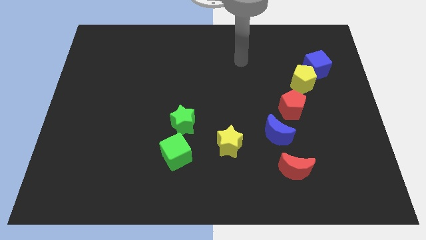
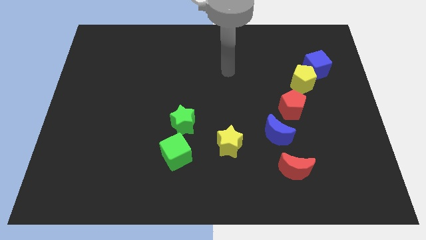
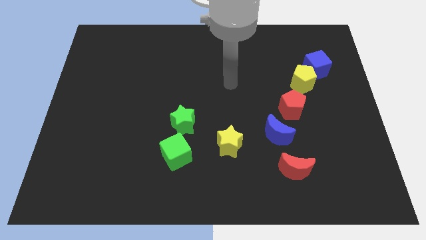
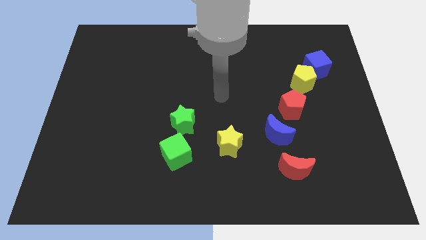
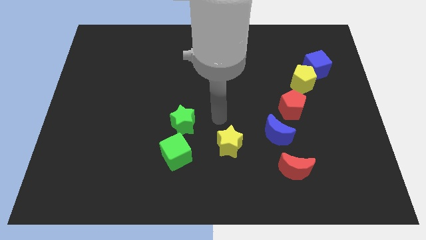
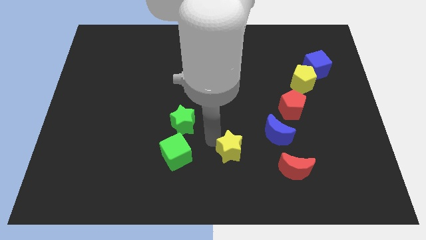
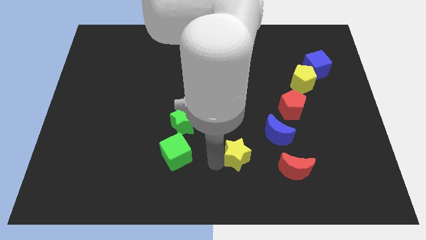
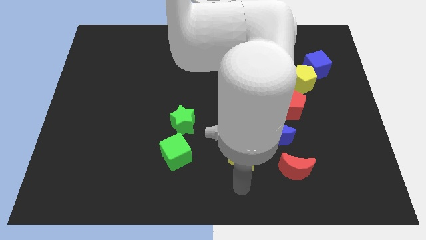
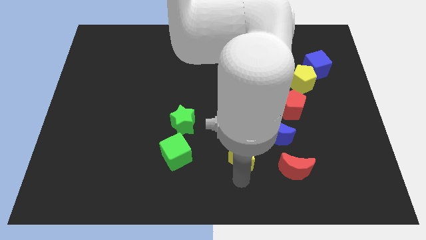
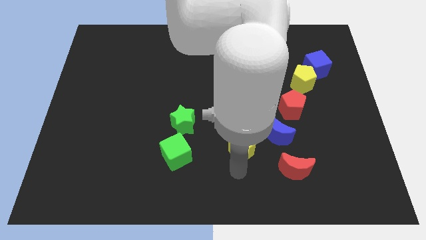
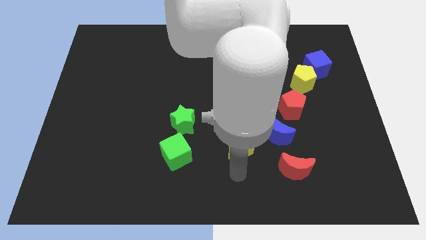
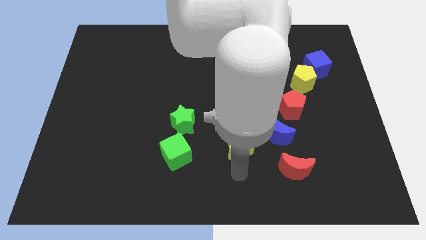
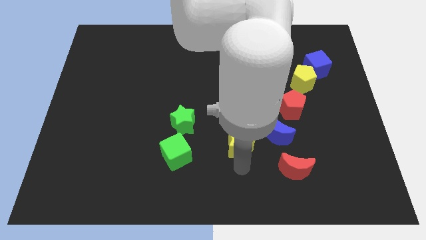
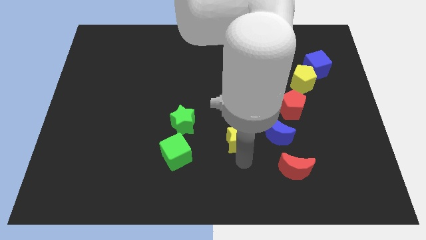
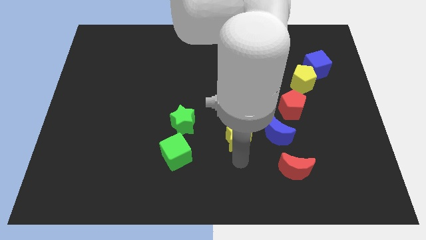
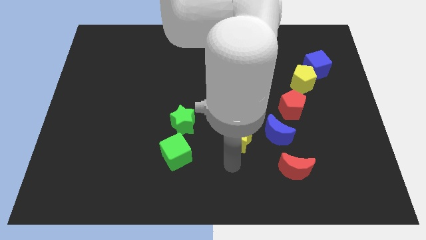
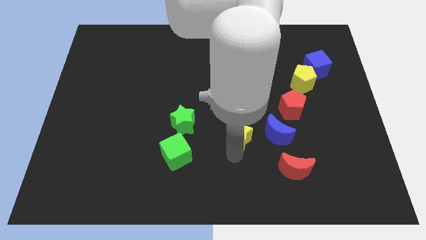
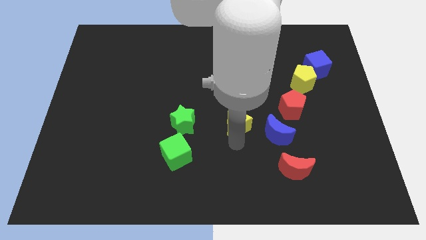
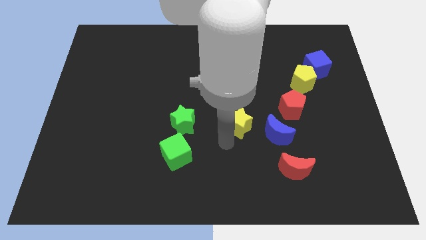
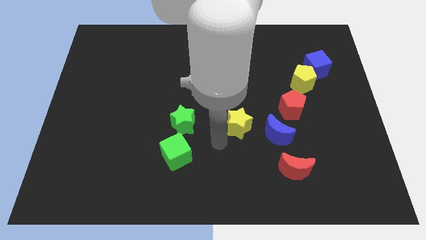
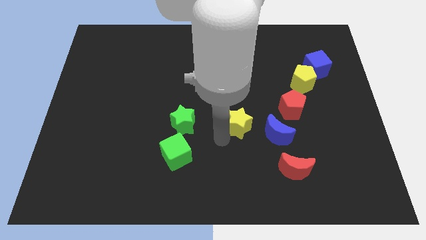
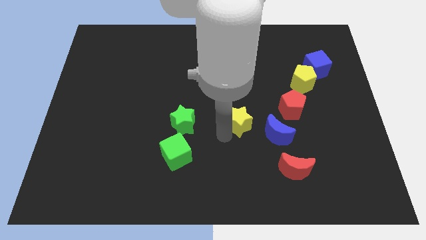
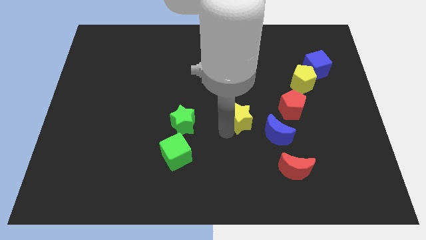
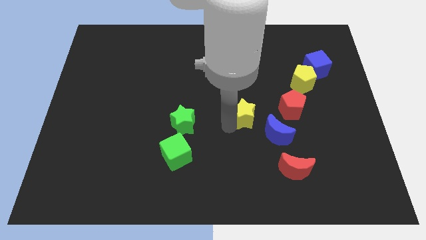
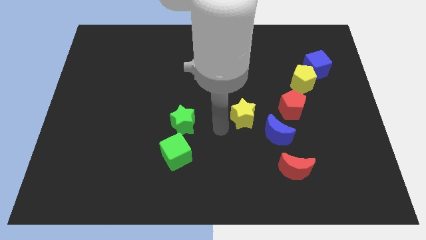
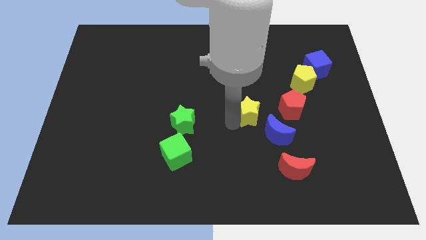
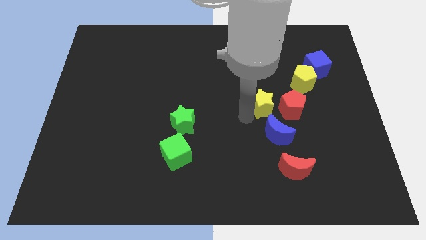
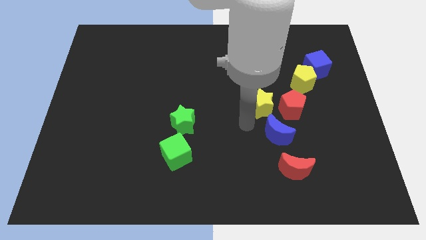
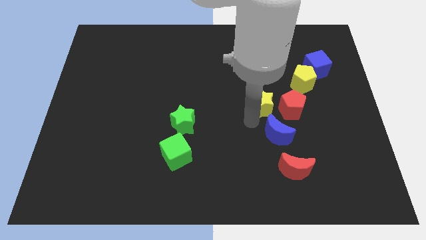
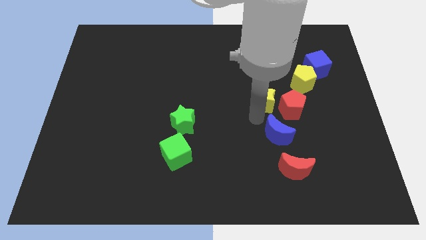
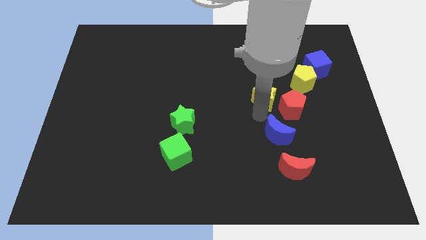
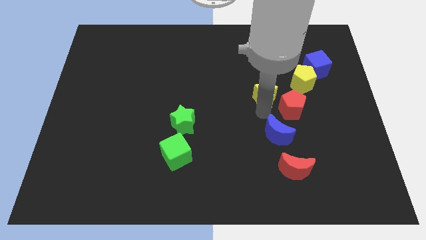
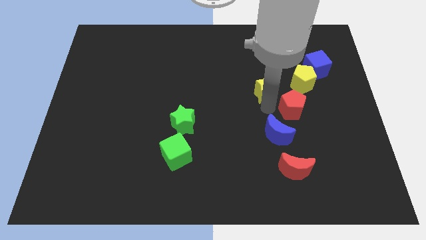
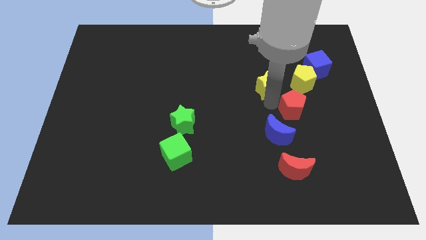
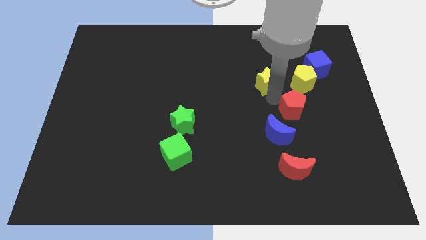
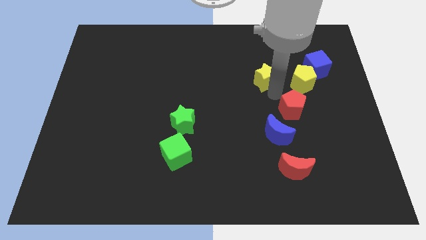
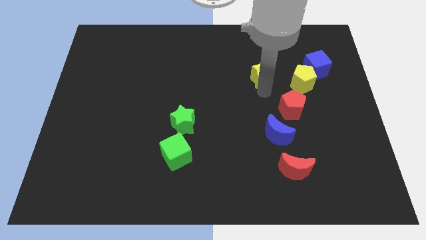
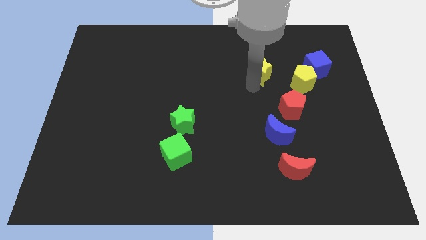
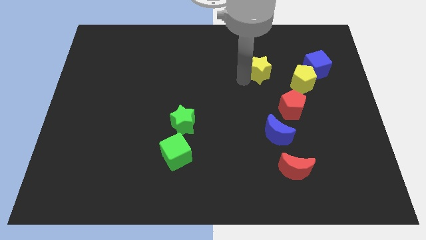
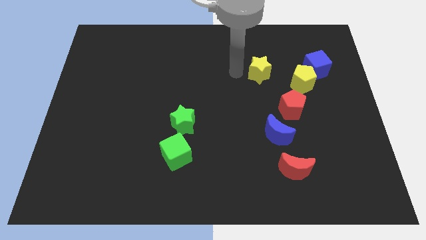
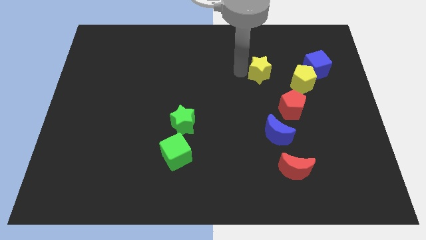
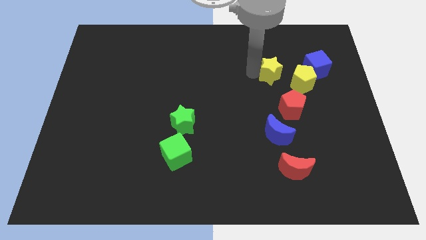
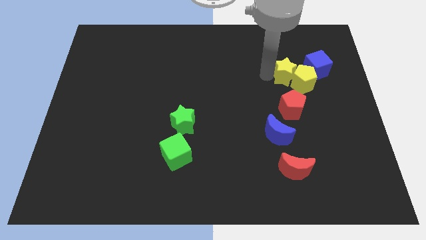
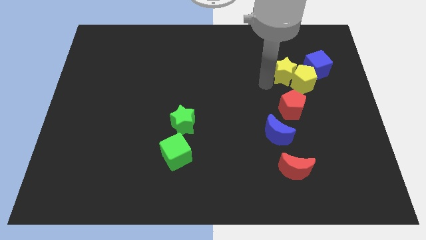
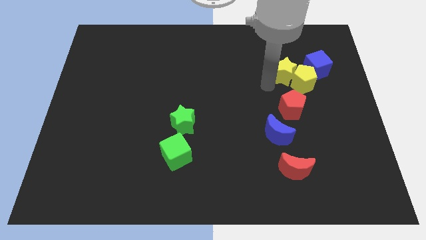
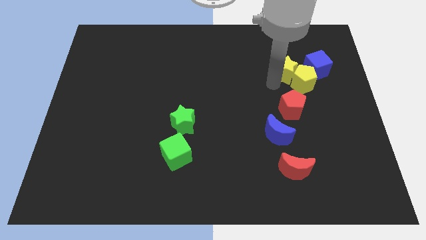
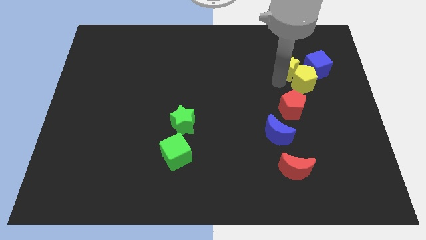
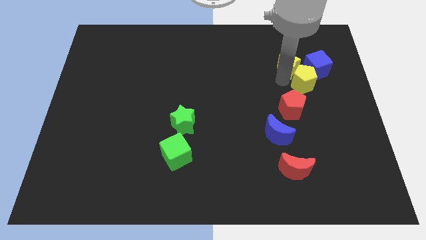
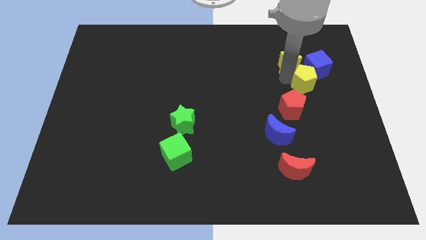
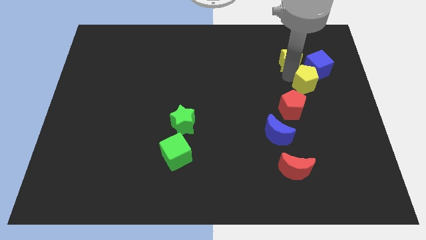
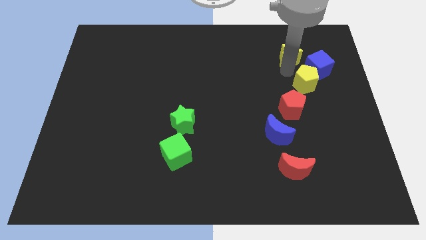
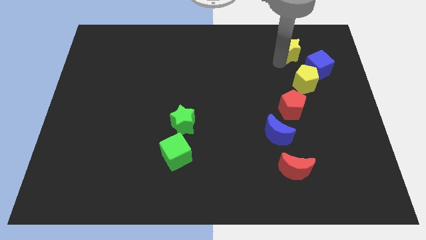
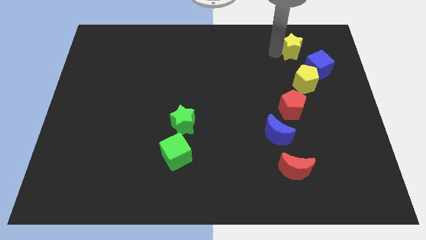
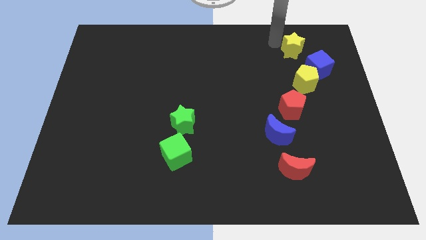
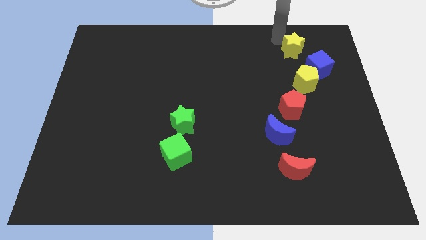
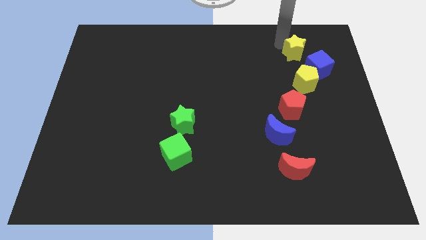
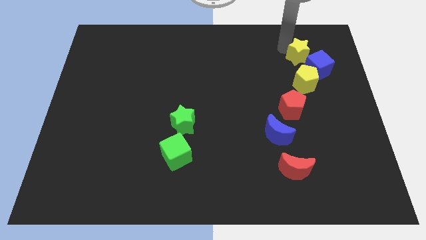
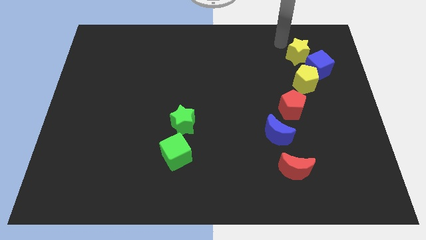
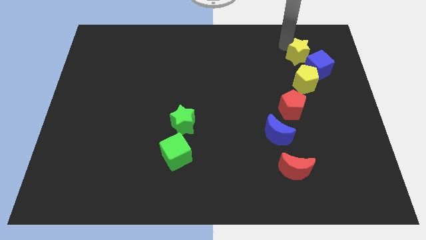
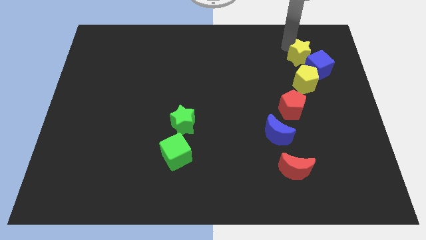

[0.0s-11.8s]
slide the yellow star next to the blue cube

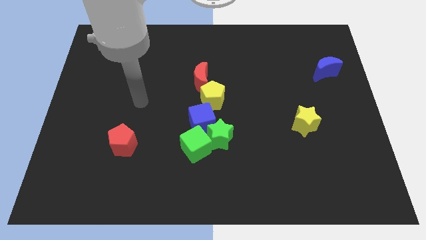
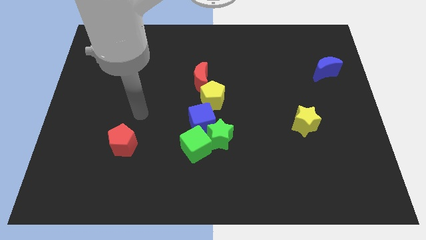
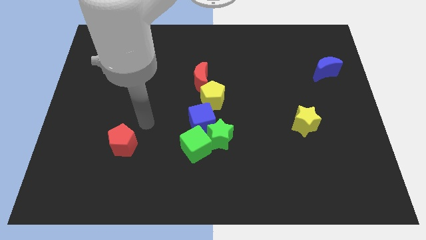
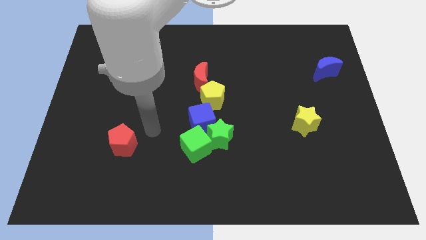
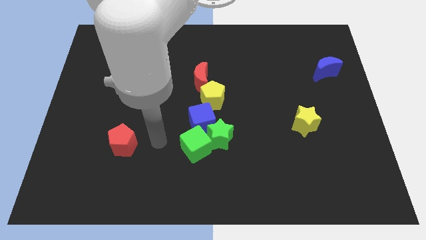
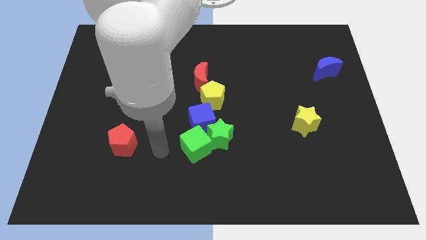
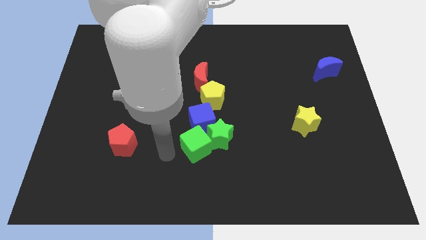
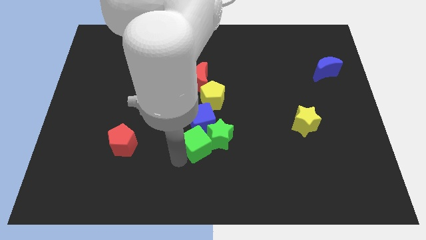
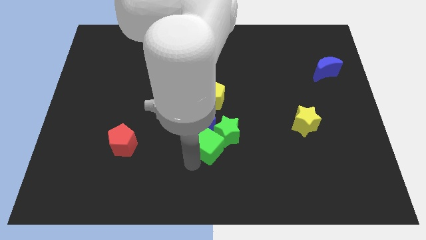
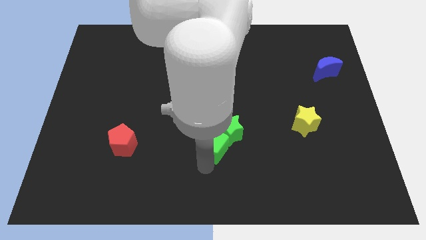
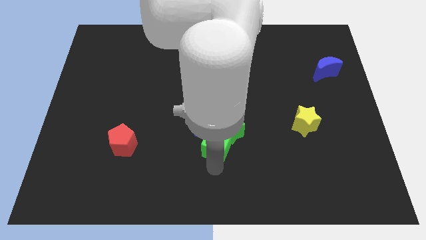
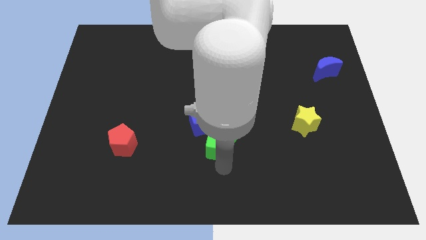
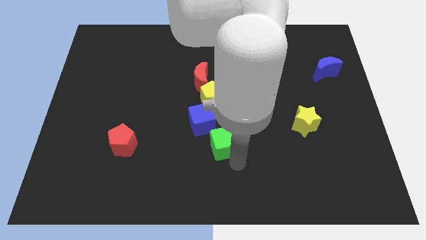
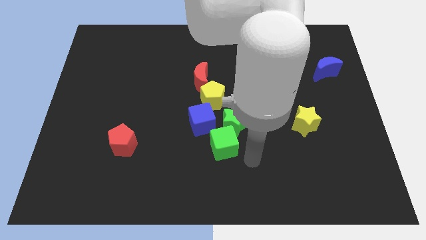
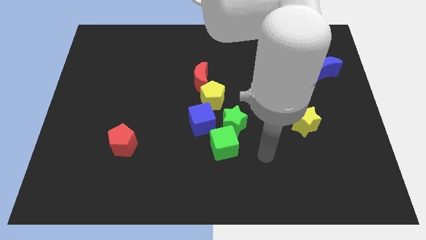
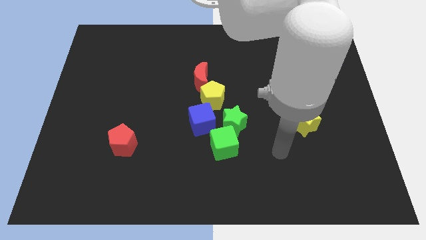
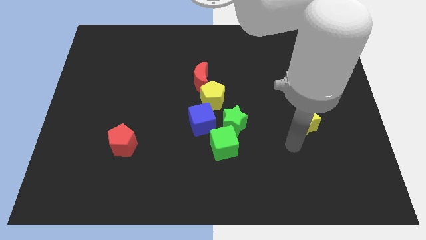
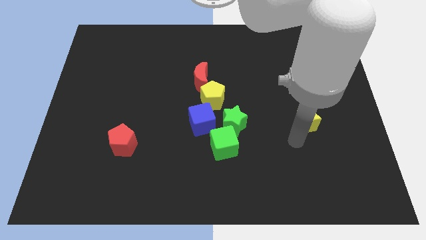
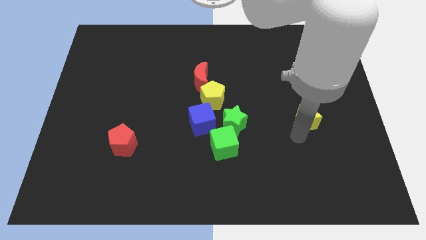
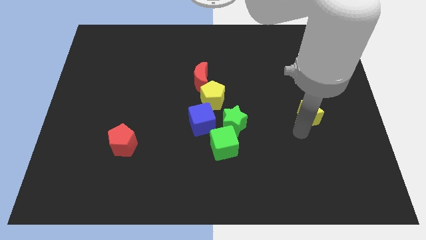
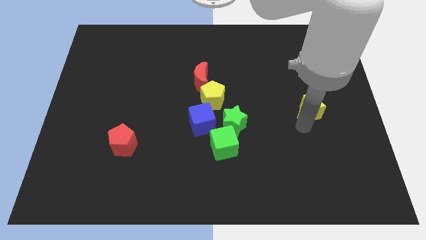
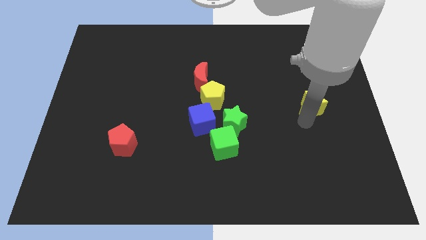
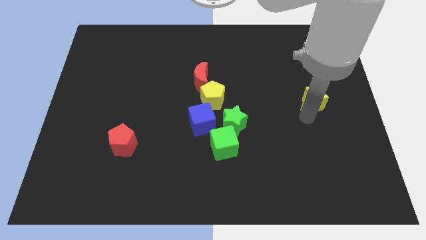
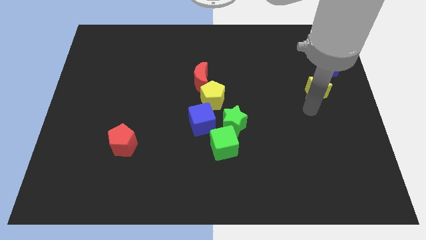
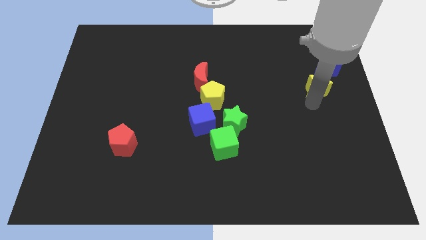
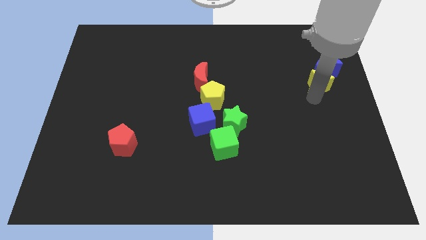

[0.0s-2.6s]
put the yellow star next to the blue moon
